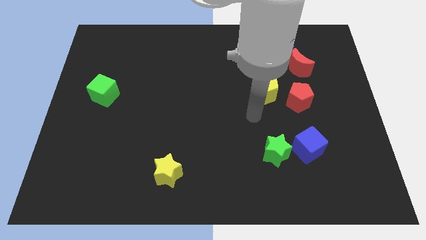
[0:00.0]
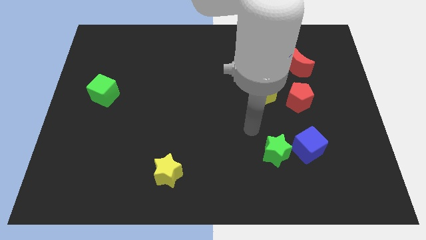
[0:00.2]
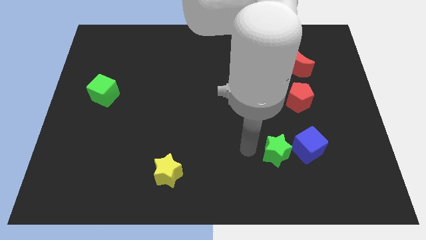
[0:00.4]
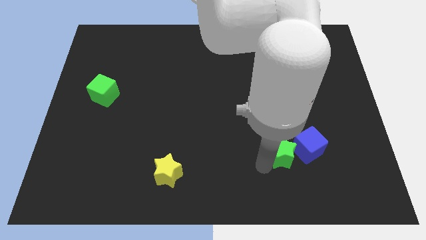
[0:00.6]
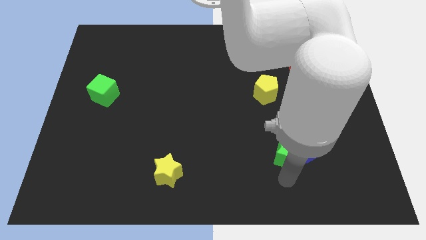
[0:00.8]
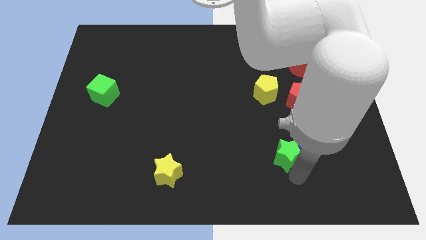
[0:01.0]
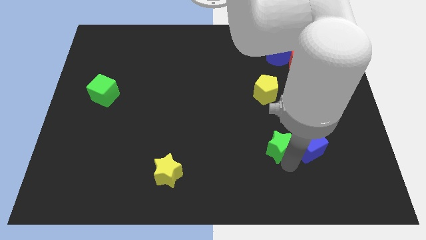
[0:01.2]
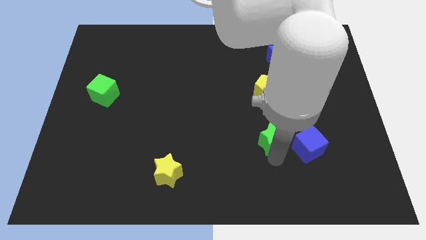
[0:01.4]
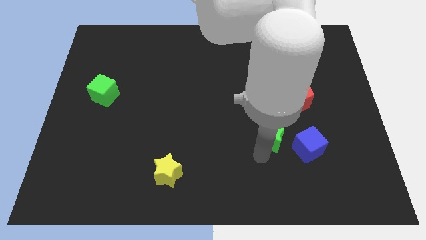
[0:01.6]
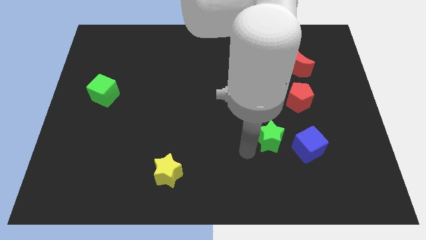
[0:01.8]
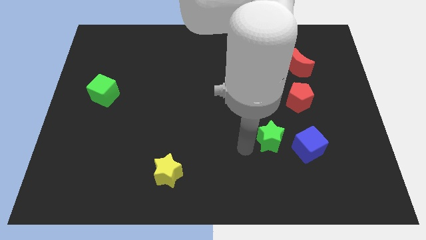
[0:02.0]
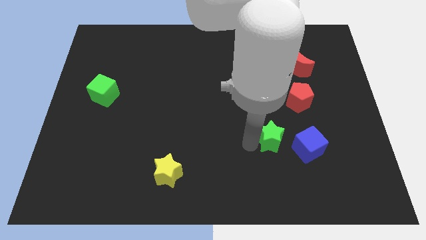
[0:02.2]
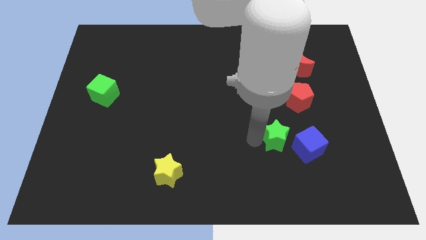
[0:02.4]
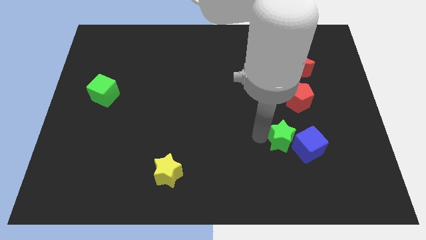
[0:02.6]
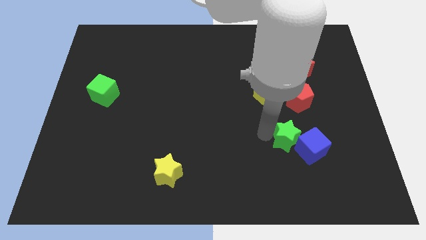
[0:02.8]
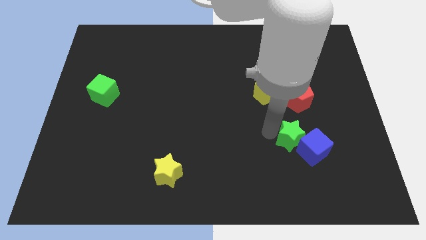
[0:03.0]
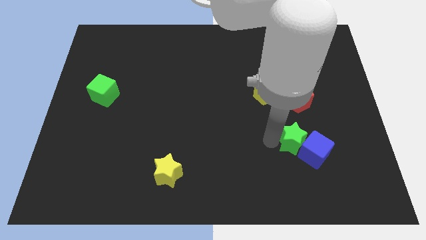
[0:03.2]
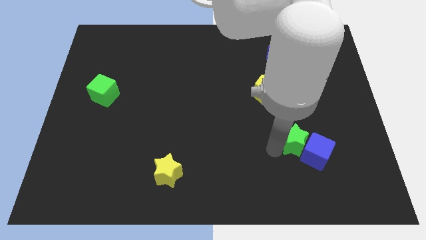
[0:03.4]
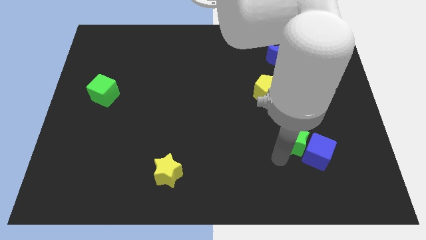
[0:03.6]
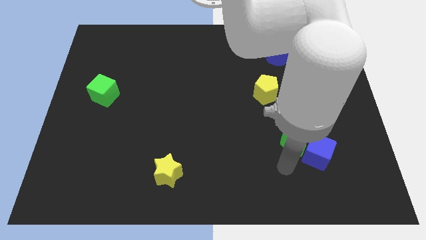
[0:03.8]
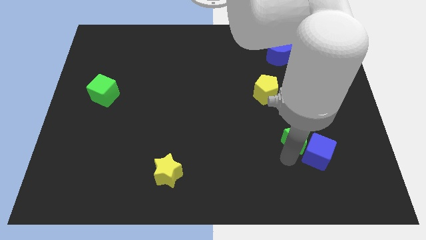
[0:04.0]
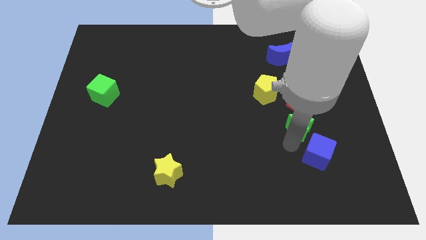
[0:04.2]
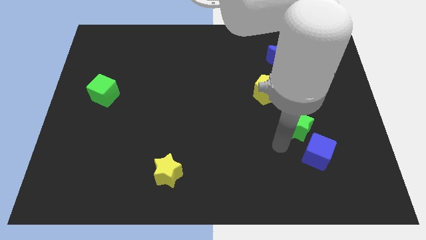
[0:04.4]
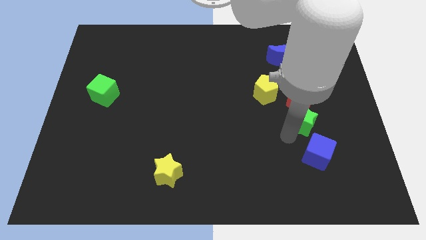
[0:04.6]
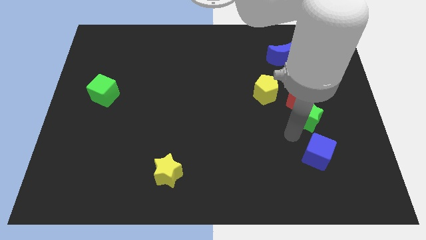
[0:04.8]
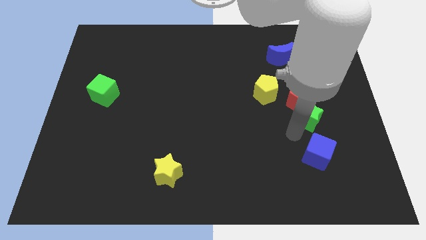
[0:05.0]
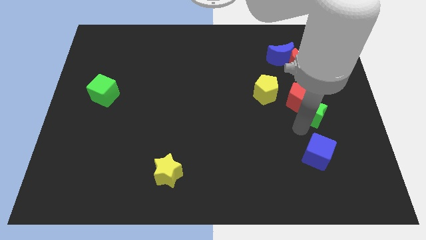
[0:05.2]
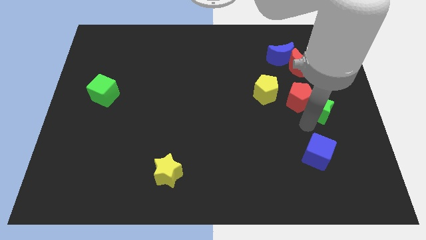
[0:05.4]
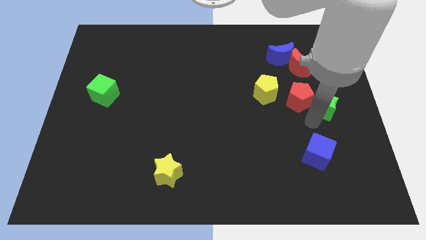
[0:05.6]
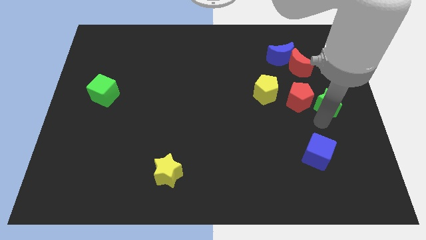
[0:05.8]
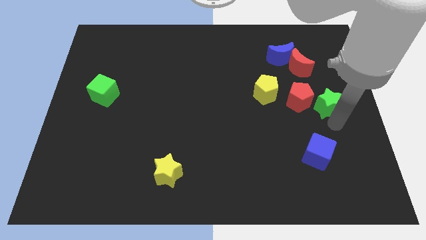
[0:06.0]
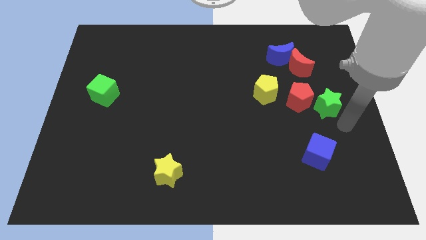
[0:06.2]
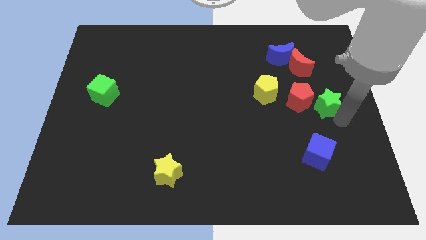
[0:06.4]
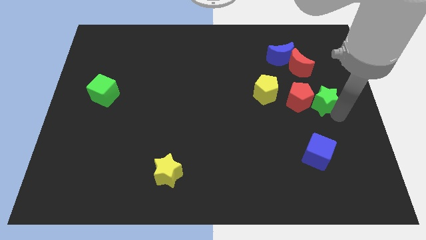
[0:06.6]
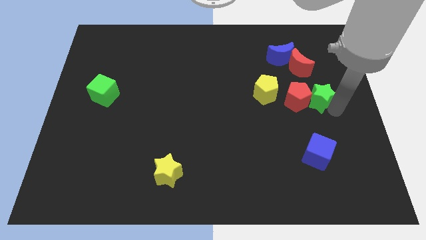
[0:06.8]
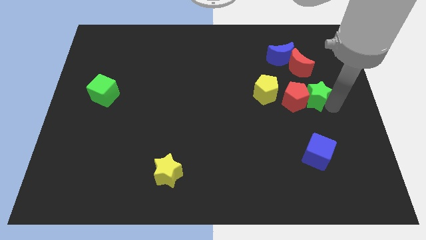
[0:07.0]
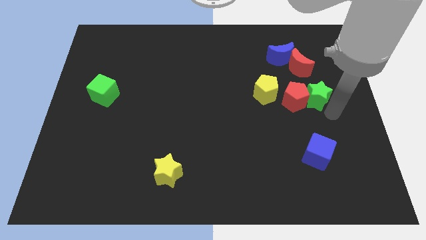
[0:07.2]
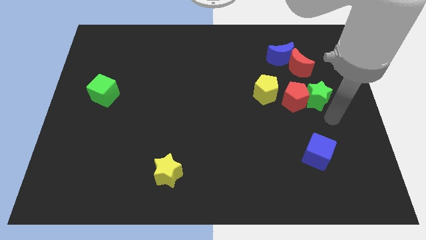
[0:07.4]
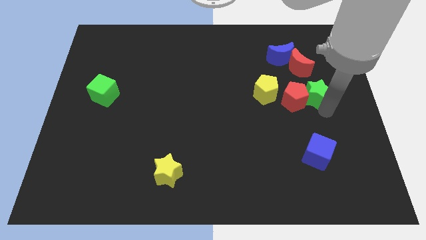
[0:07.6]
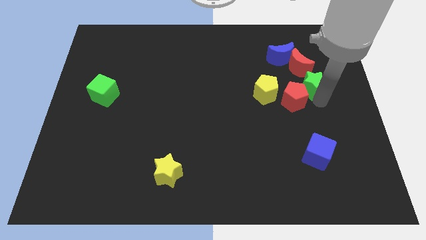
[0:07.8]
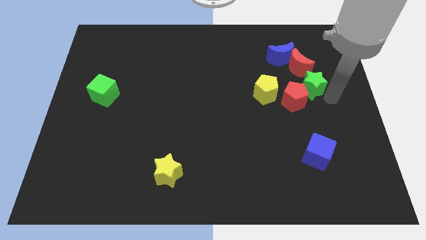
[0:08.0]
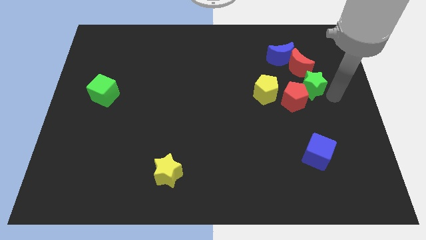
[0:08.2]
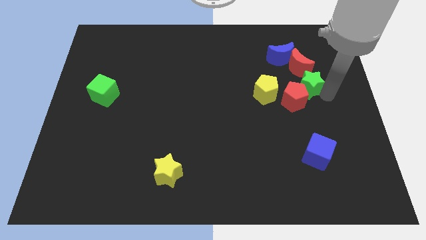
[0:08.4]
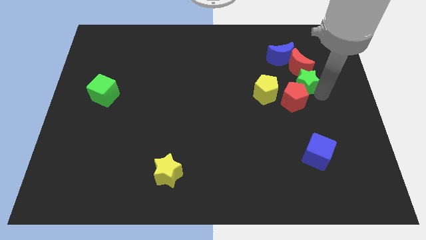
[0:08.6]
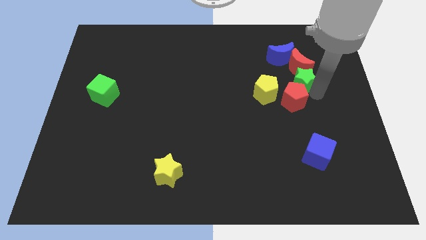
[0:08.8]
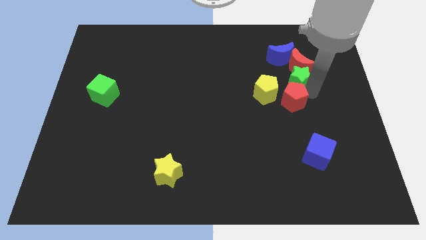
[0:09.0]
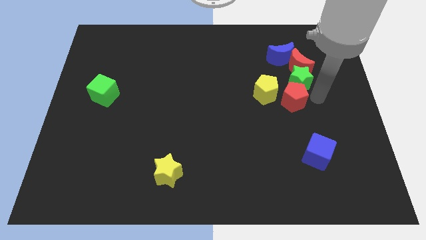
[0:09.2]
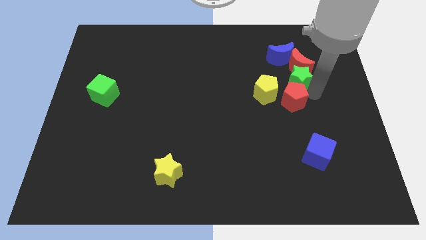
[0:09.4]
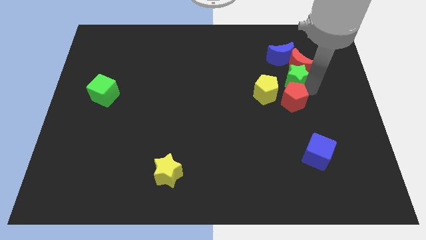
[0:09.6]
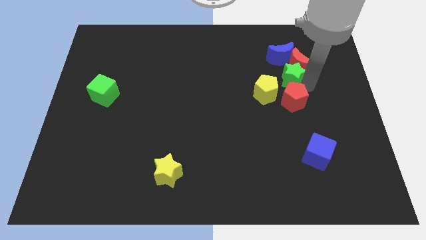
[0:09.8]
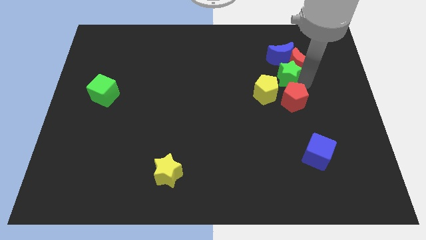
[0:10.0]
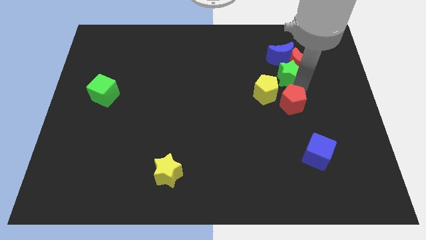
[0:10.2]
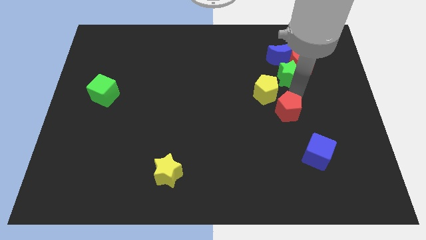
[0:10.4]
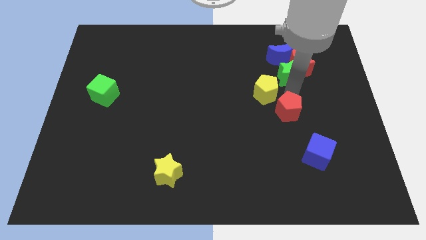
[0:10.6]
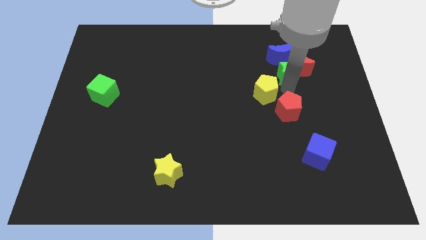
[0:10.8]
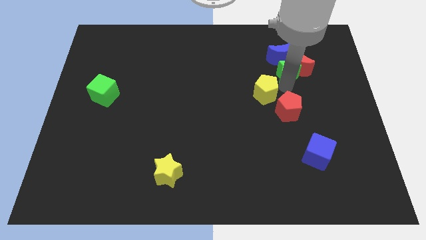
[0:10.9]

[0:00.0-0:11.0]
push the green star towards the blue moon

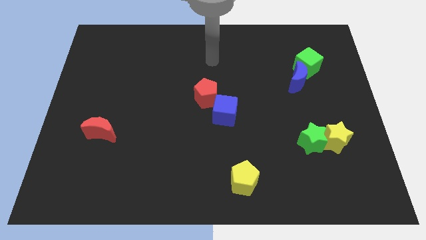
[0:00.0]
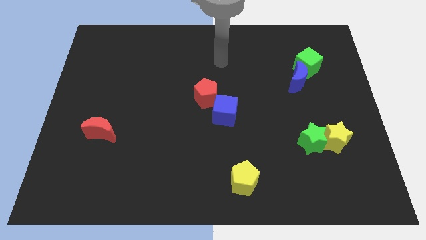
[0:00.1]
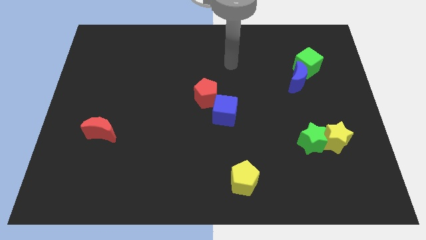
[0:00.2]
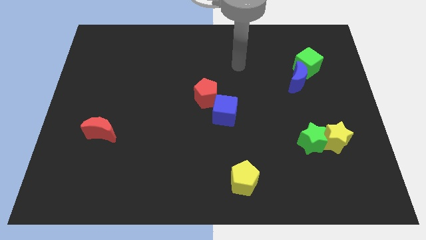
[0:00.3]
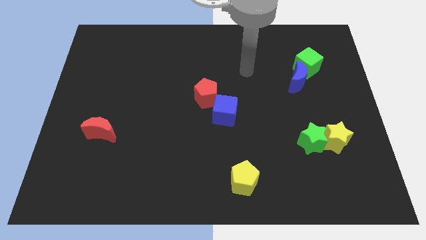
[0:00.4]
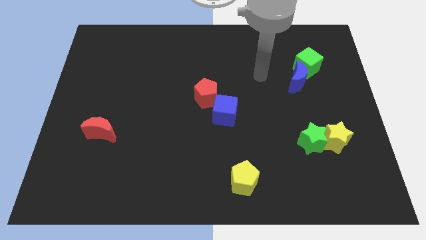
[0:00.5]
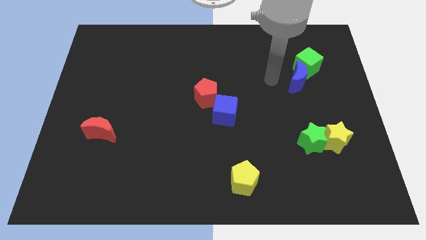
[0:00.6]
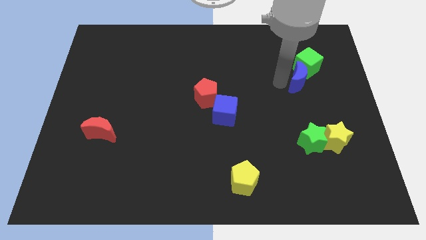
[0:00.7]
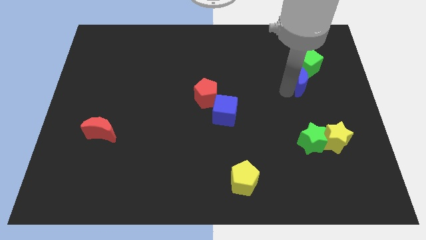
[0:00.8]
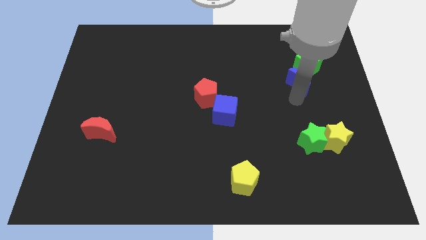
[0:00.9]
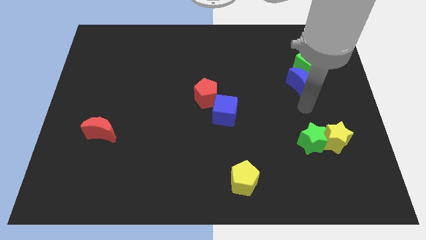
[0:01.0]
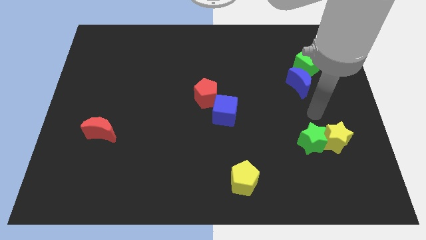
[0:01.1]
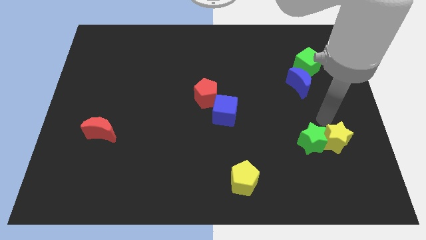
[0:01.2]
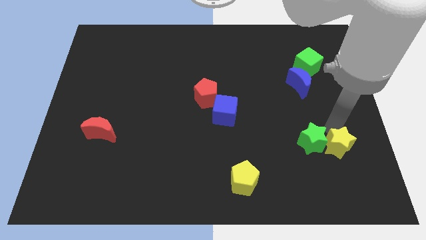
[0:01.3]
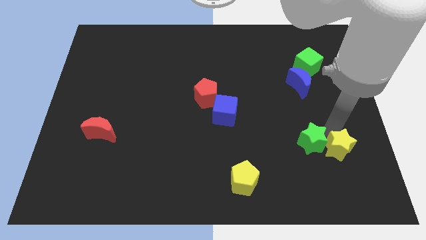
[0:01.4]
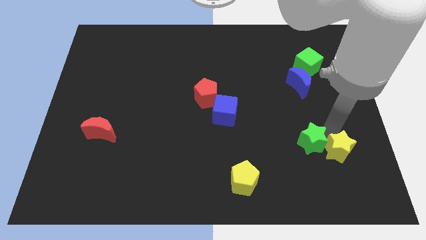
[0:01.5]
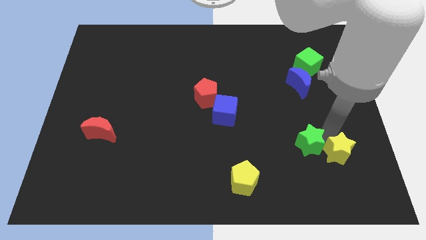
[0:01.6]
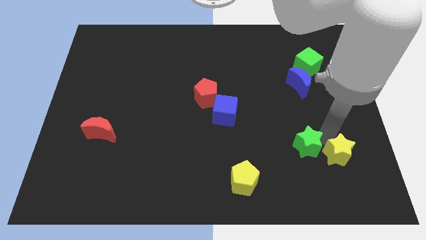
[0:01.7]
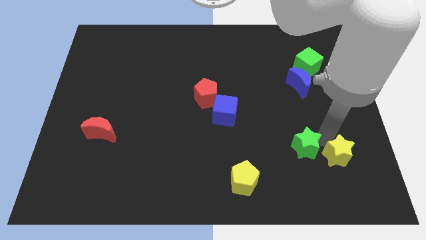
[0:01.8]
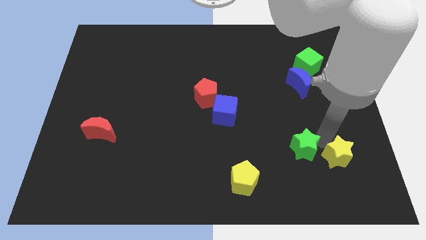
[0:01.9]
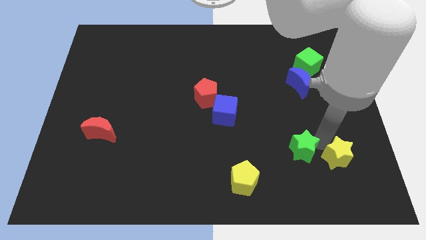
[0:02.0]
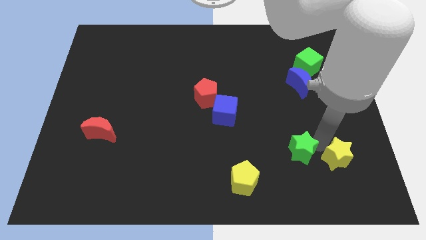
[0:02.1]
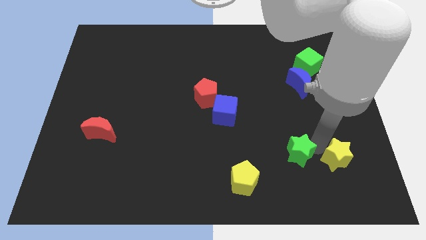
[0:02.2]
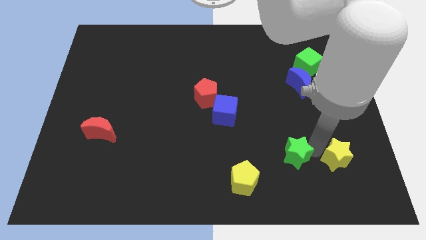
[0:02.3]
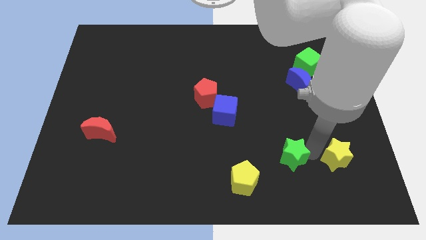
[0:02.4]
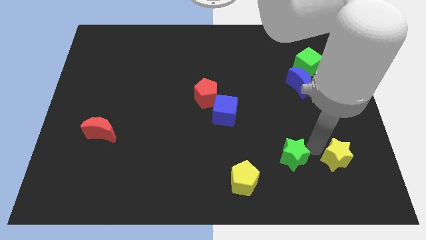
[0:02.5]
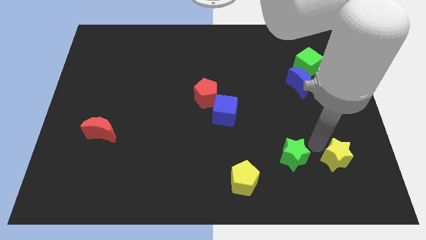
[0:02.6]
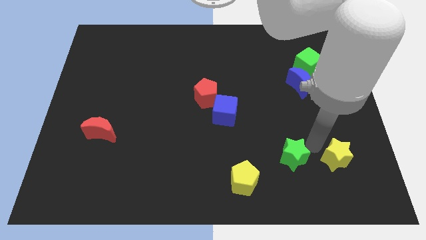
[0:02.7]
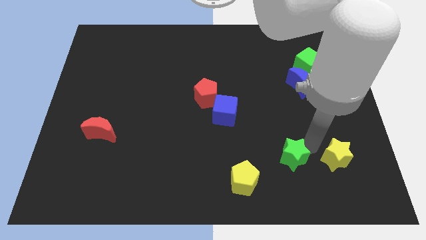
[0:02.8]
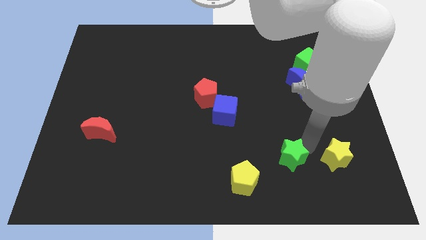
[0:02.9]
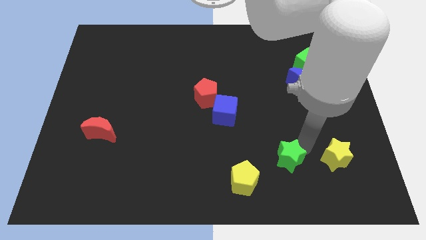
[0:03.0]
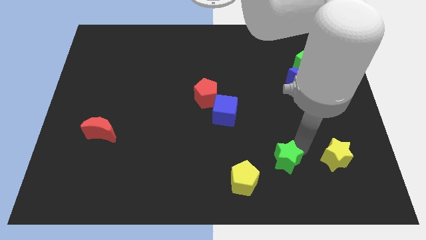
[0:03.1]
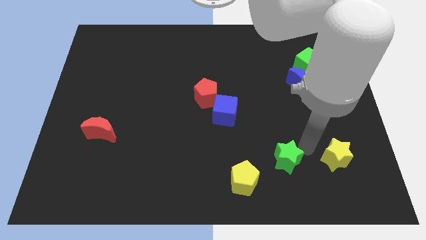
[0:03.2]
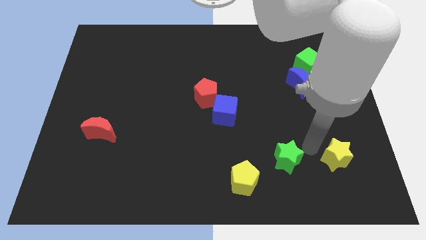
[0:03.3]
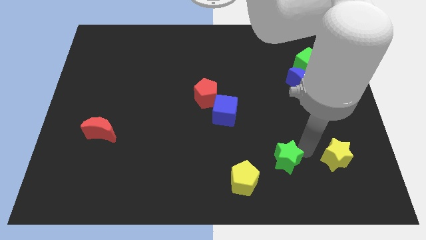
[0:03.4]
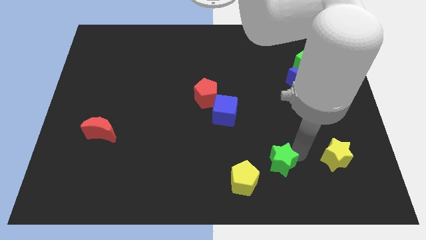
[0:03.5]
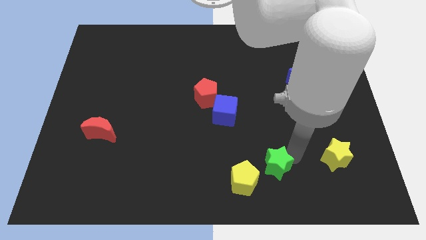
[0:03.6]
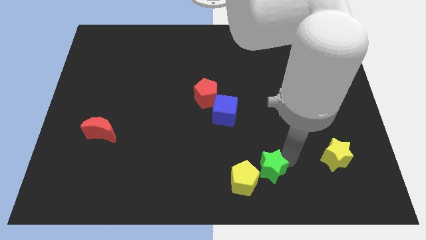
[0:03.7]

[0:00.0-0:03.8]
push the green star towards the yellow pentagon
